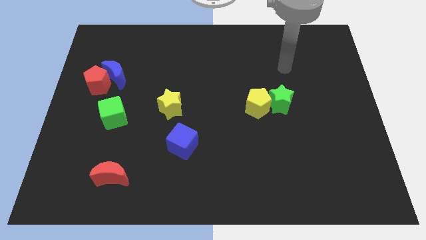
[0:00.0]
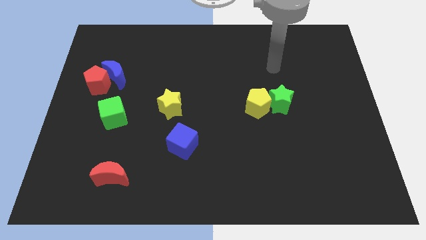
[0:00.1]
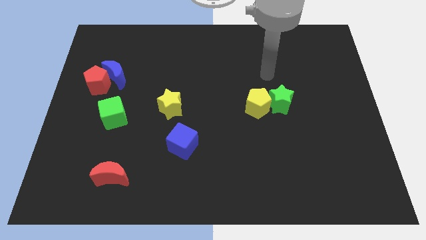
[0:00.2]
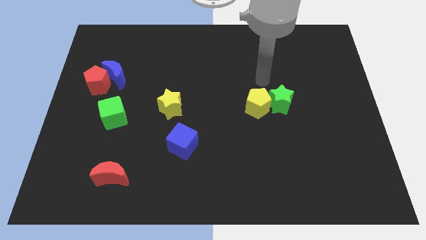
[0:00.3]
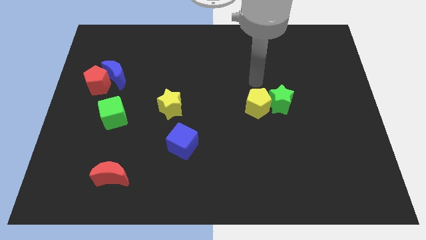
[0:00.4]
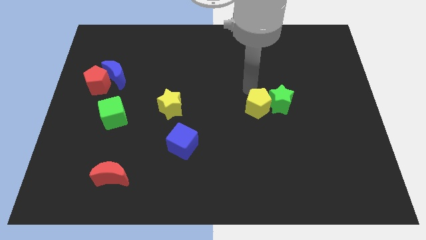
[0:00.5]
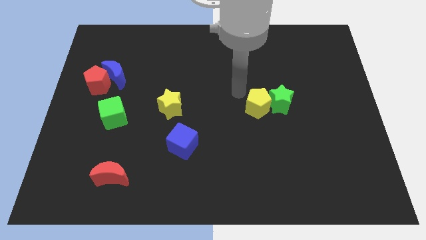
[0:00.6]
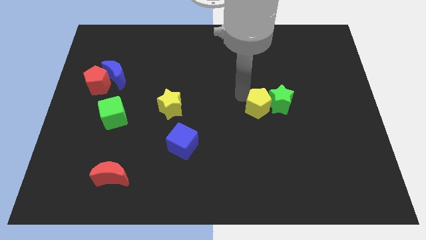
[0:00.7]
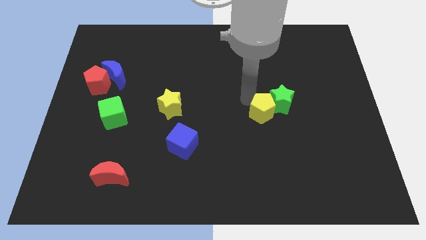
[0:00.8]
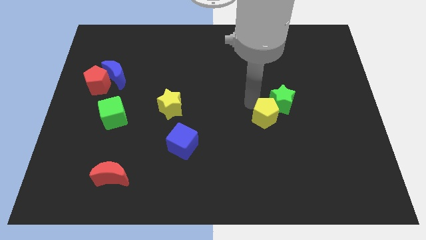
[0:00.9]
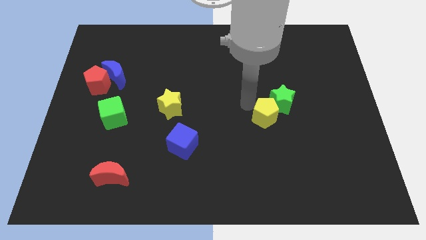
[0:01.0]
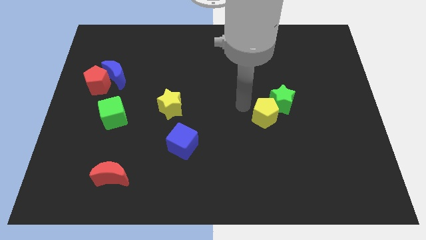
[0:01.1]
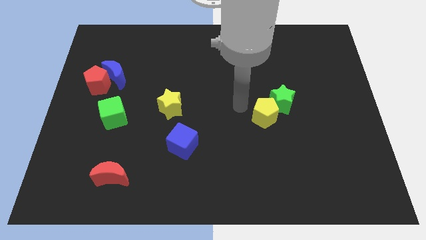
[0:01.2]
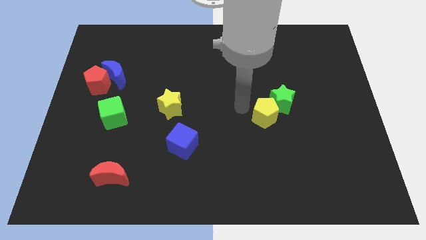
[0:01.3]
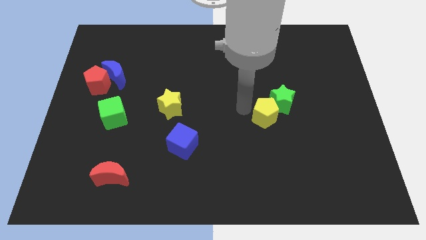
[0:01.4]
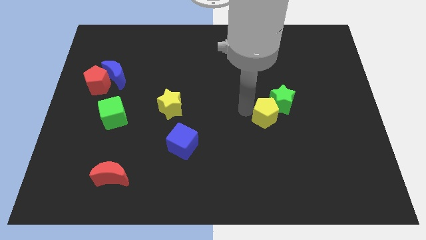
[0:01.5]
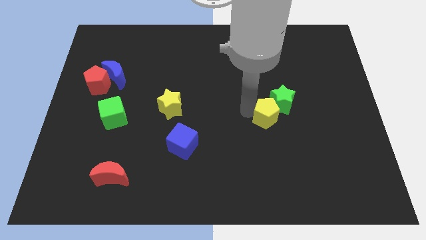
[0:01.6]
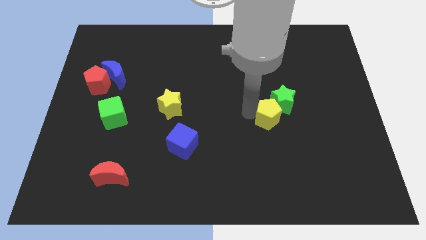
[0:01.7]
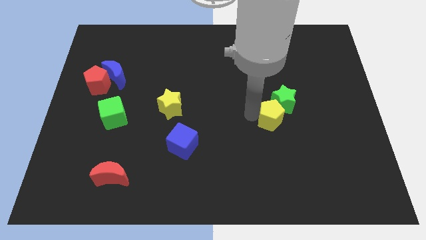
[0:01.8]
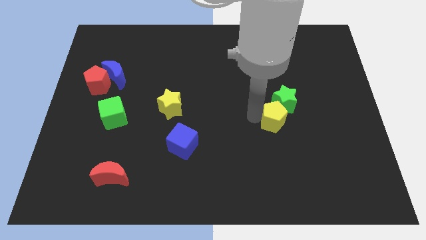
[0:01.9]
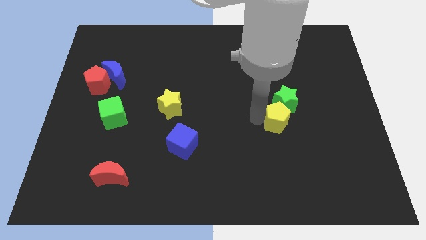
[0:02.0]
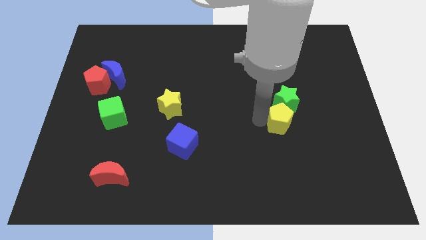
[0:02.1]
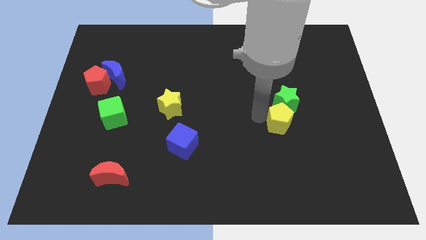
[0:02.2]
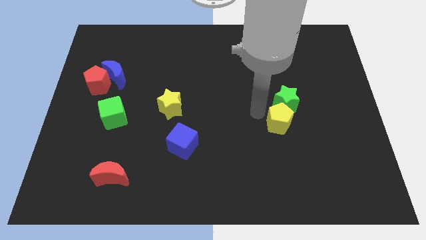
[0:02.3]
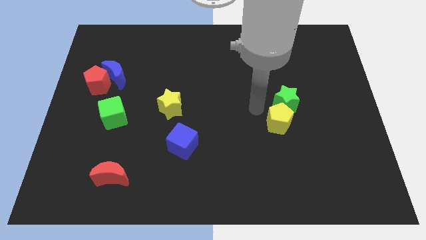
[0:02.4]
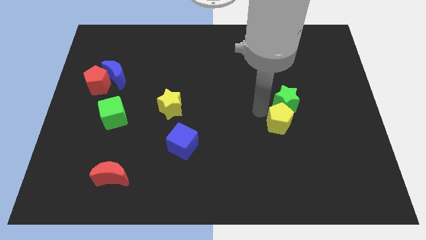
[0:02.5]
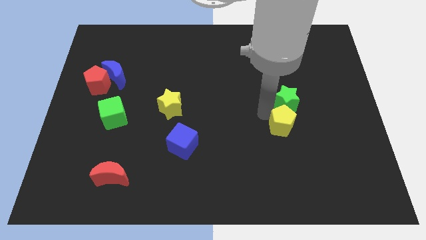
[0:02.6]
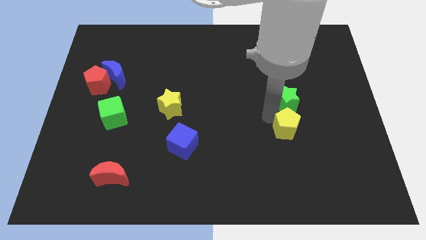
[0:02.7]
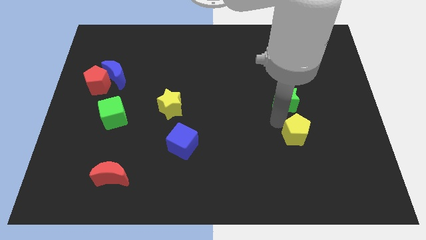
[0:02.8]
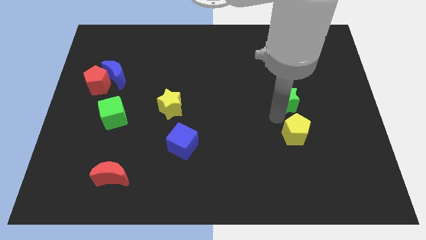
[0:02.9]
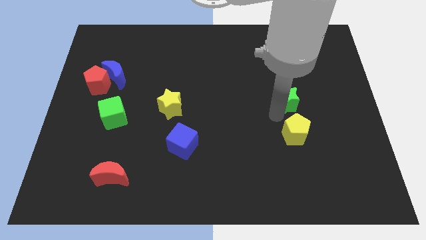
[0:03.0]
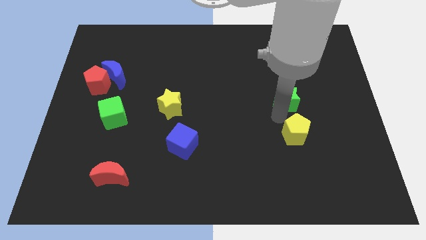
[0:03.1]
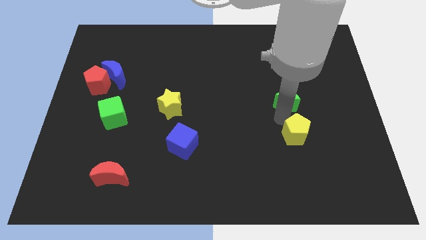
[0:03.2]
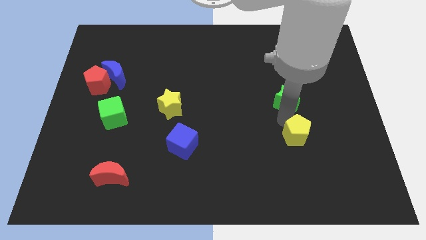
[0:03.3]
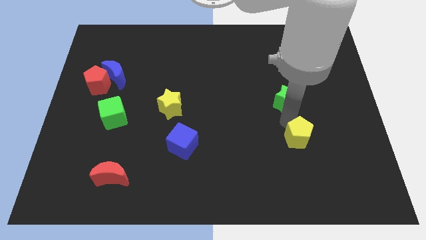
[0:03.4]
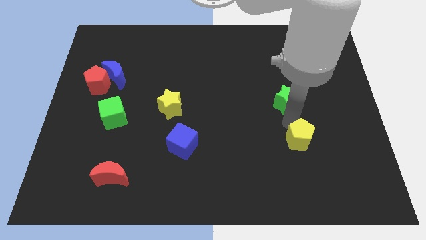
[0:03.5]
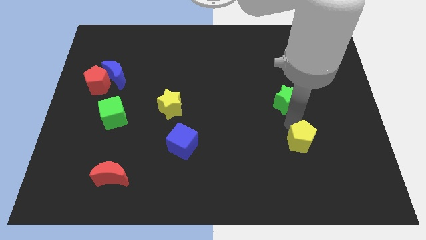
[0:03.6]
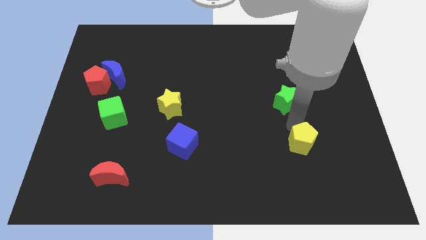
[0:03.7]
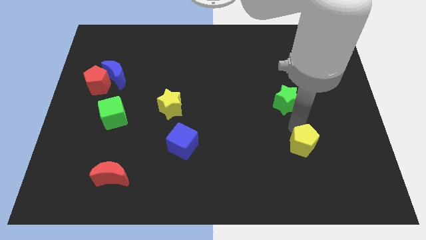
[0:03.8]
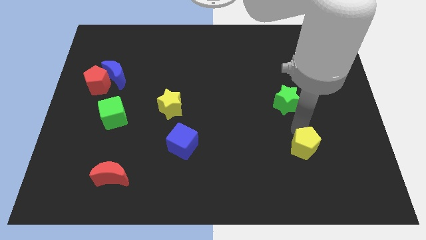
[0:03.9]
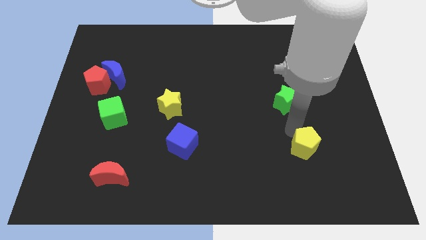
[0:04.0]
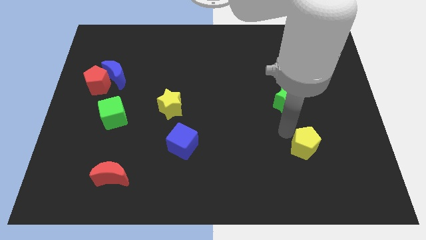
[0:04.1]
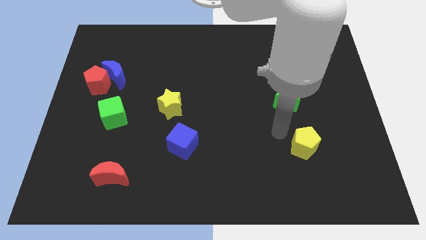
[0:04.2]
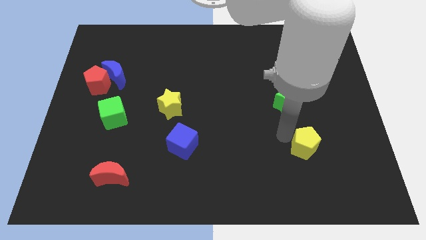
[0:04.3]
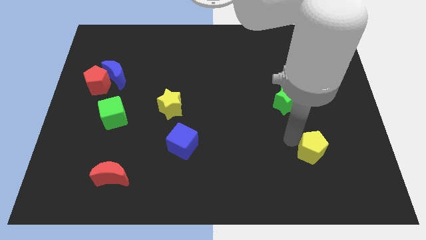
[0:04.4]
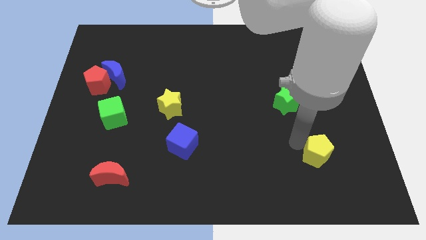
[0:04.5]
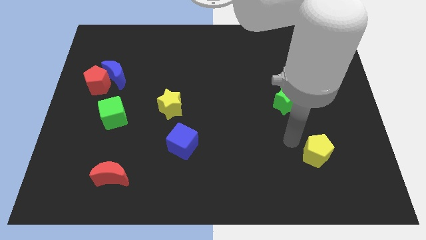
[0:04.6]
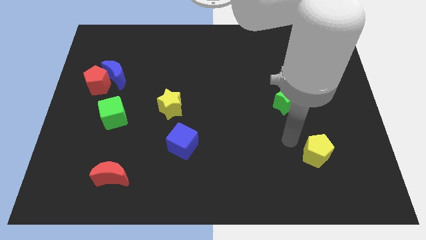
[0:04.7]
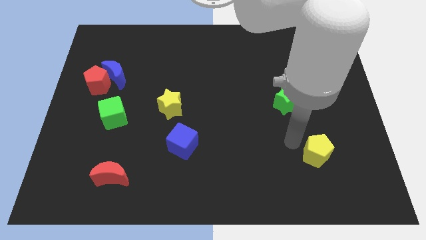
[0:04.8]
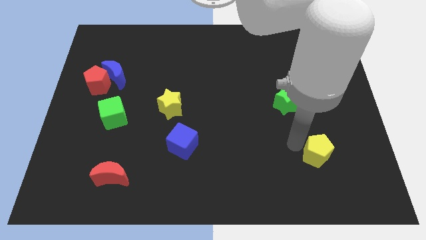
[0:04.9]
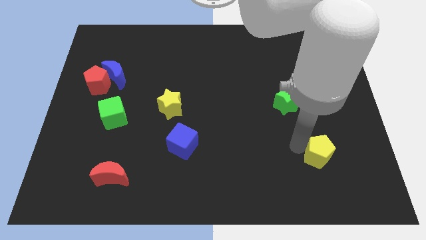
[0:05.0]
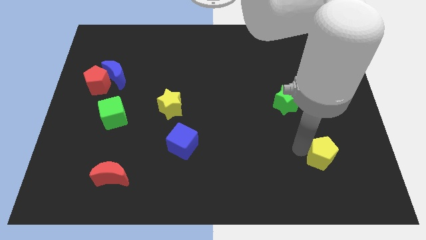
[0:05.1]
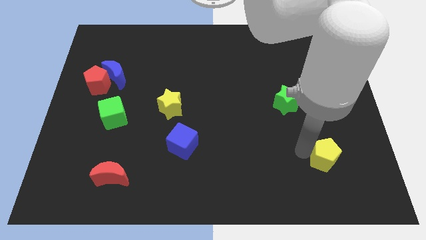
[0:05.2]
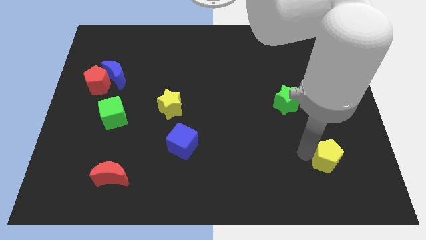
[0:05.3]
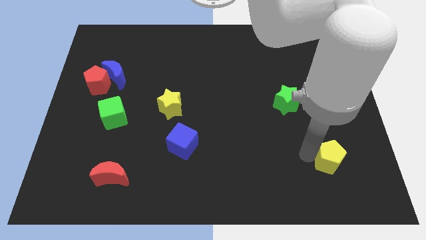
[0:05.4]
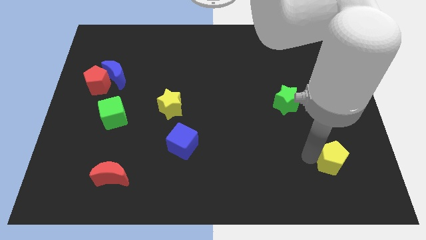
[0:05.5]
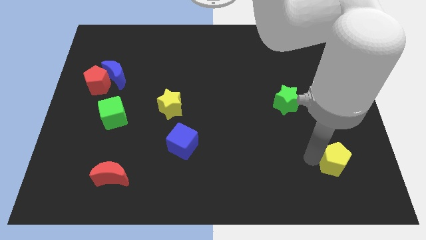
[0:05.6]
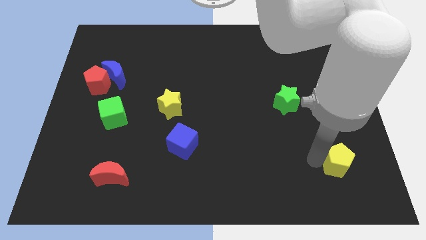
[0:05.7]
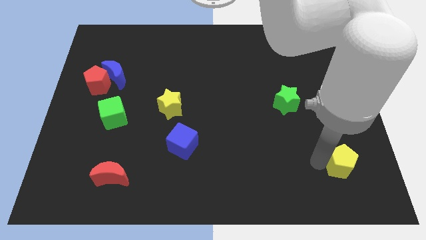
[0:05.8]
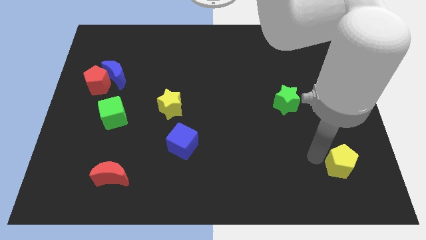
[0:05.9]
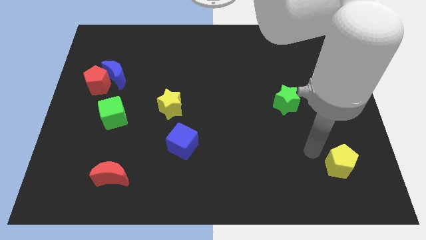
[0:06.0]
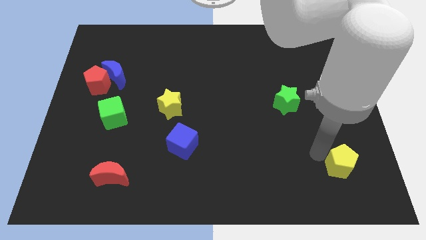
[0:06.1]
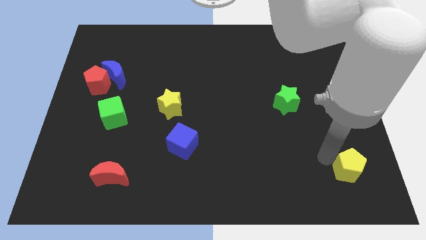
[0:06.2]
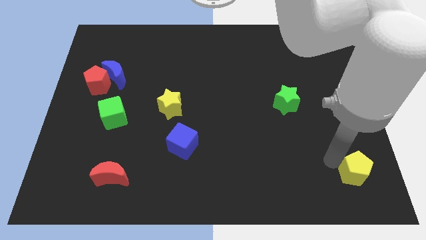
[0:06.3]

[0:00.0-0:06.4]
move the yellow pentagon to the bottom right corner
